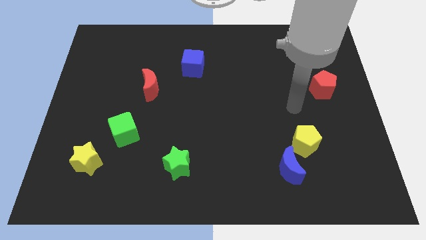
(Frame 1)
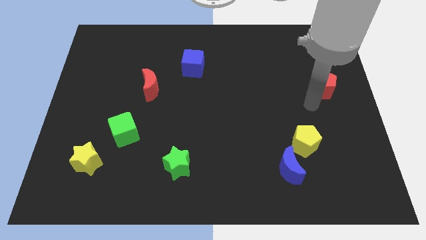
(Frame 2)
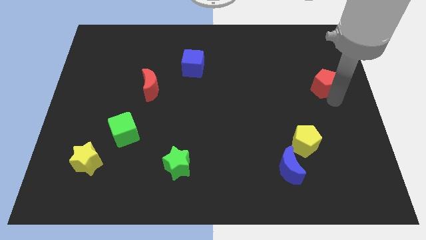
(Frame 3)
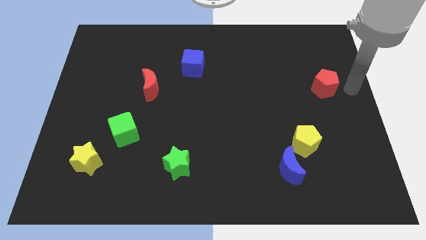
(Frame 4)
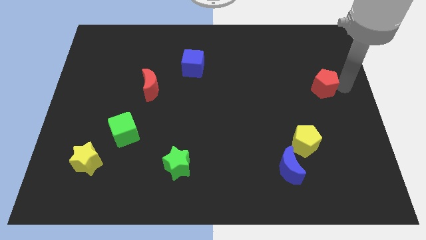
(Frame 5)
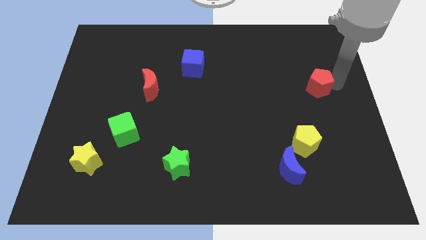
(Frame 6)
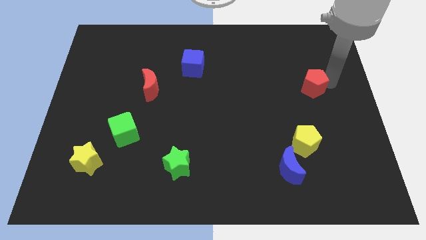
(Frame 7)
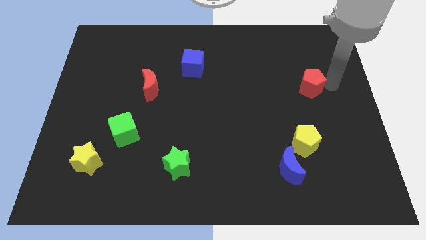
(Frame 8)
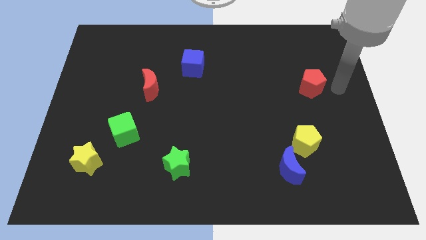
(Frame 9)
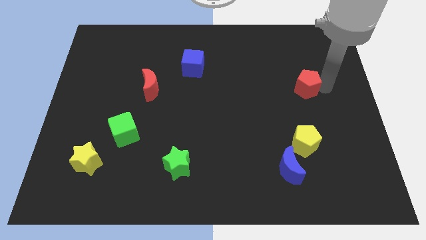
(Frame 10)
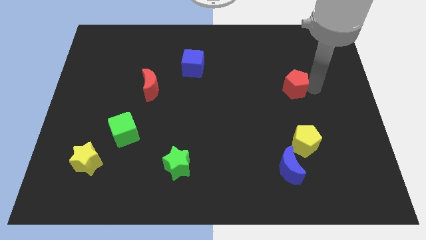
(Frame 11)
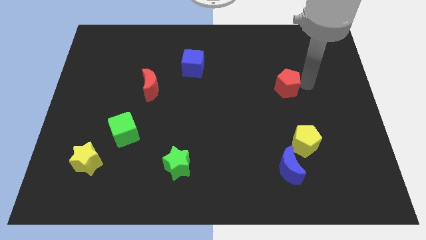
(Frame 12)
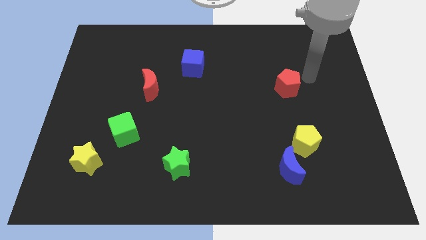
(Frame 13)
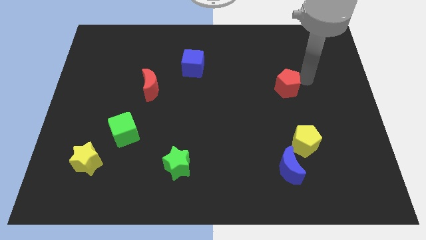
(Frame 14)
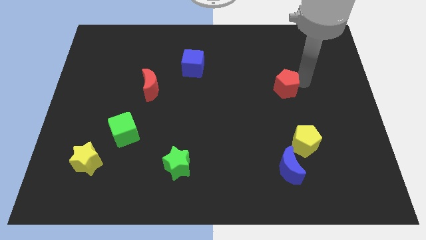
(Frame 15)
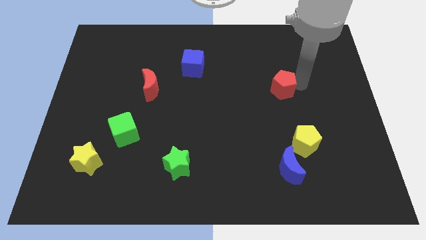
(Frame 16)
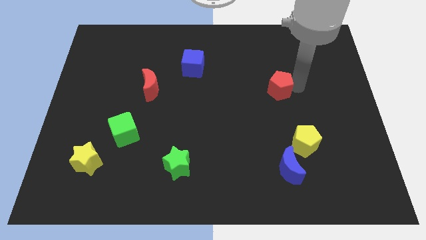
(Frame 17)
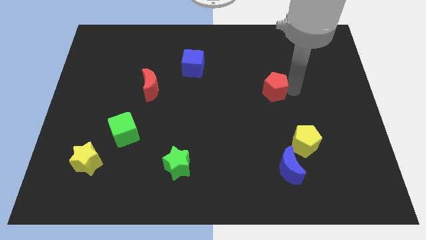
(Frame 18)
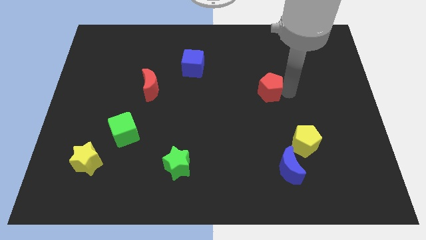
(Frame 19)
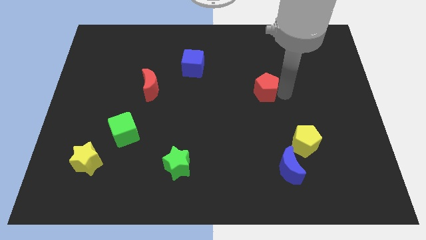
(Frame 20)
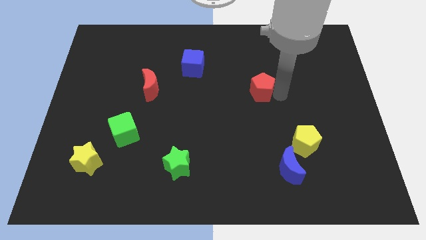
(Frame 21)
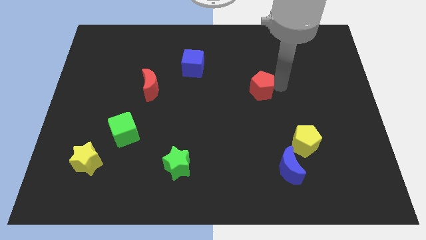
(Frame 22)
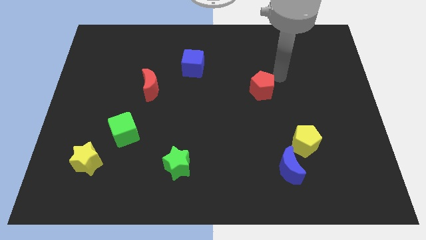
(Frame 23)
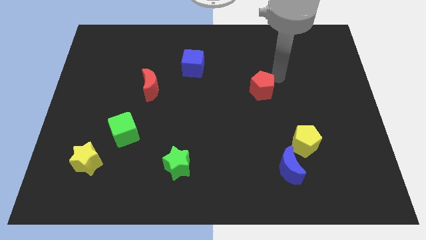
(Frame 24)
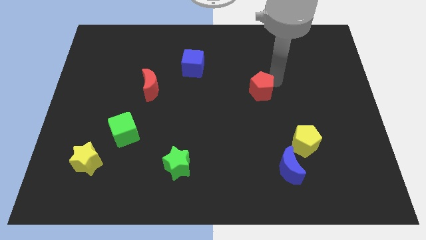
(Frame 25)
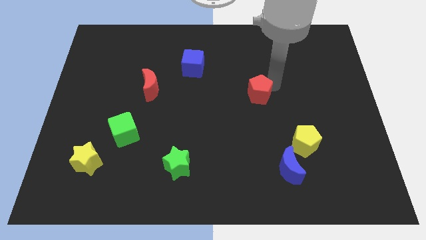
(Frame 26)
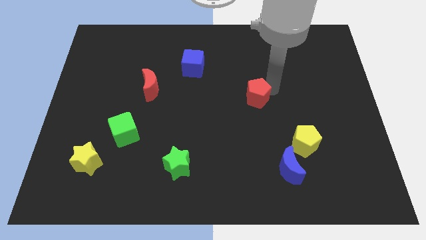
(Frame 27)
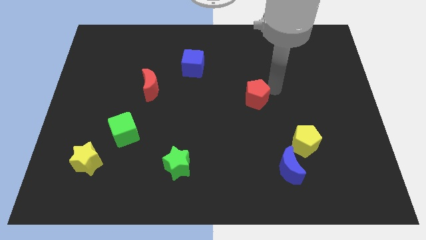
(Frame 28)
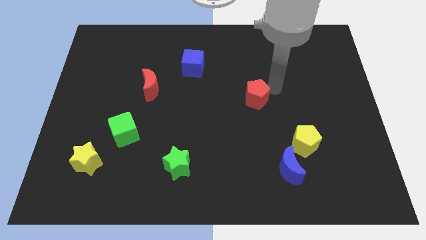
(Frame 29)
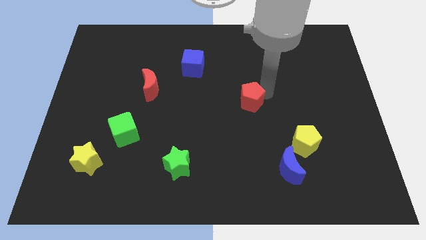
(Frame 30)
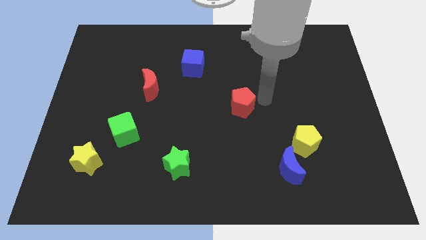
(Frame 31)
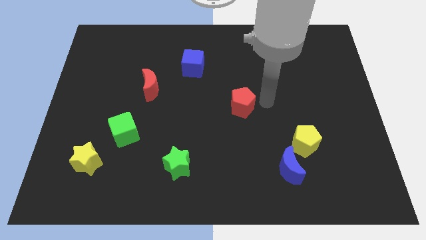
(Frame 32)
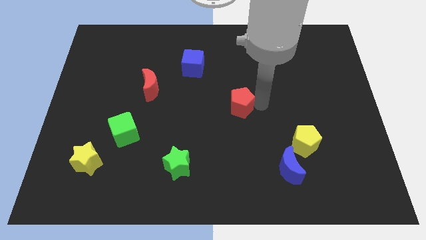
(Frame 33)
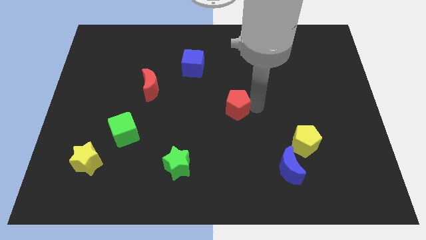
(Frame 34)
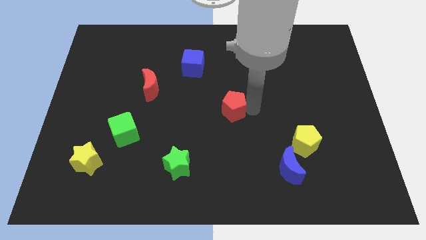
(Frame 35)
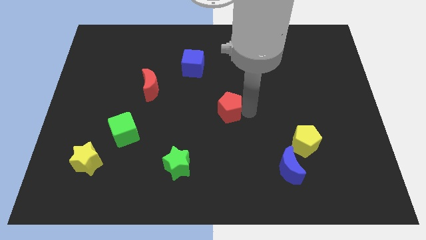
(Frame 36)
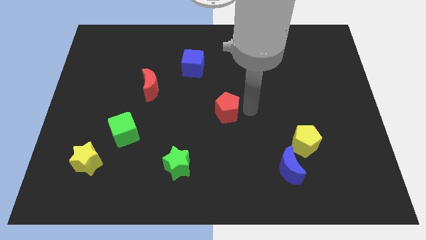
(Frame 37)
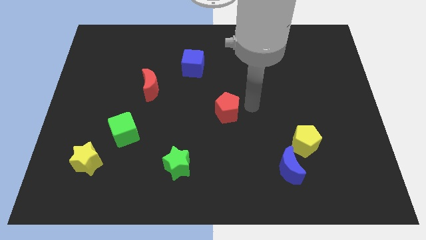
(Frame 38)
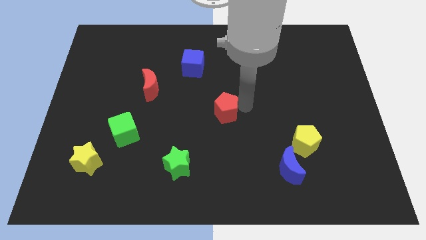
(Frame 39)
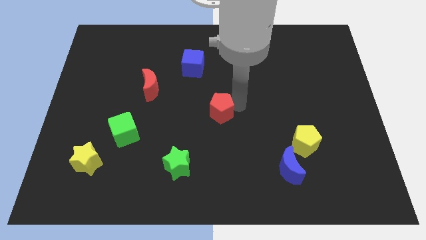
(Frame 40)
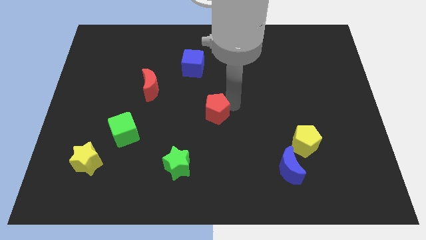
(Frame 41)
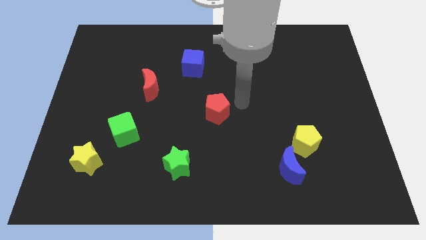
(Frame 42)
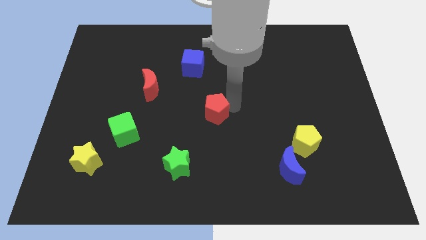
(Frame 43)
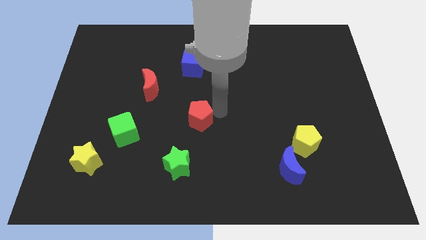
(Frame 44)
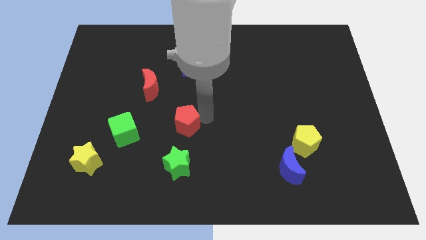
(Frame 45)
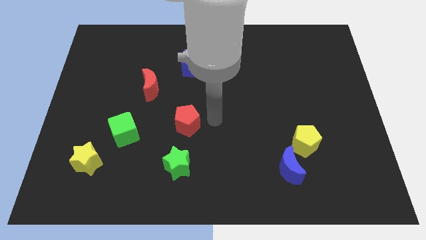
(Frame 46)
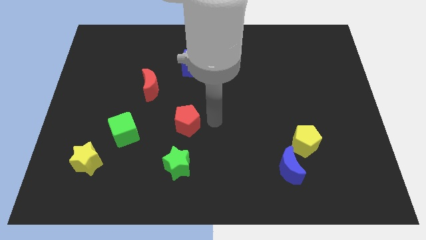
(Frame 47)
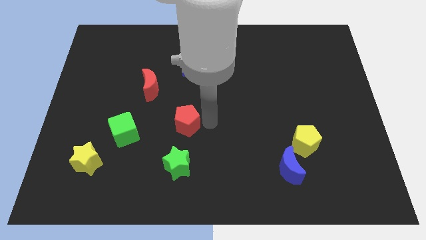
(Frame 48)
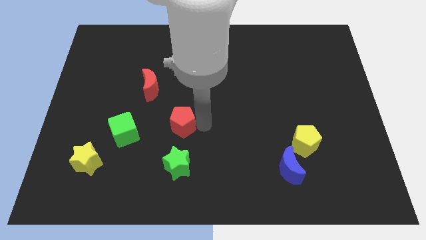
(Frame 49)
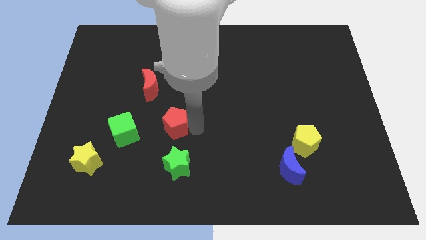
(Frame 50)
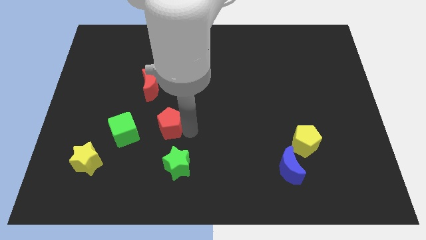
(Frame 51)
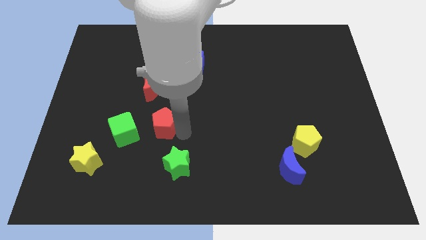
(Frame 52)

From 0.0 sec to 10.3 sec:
put the red pentagon below the red moon

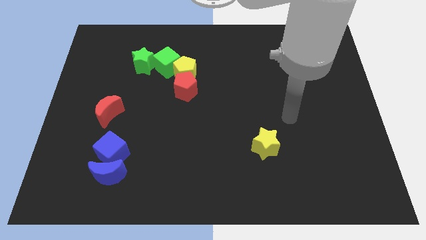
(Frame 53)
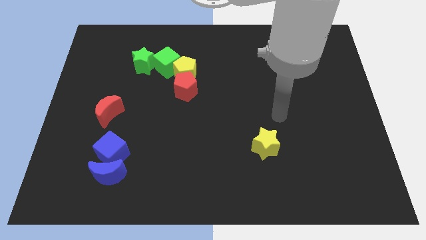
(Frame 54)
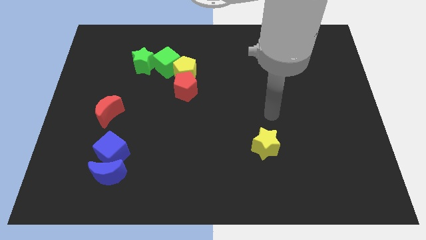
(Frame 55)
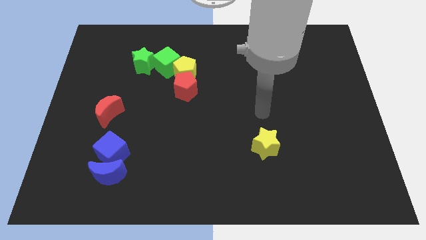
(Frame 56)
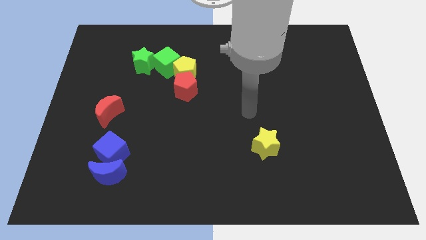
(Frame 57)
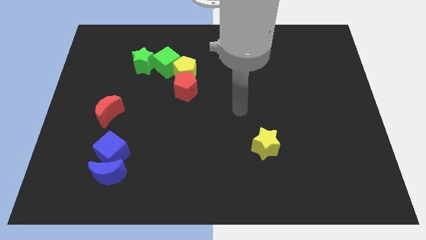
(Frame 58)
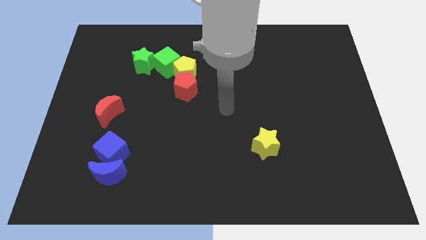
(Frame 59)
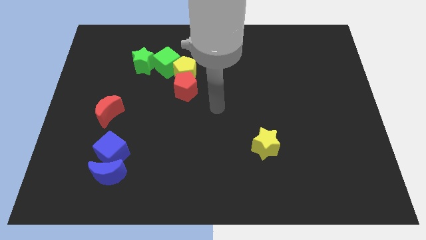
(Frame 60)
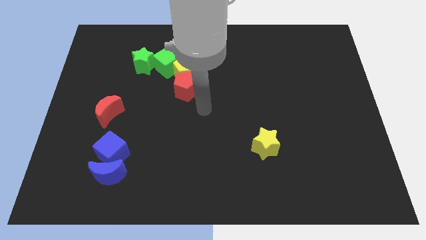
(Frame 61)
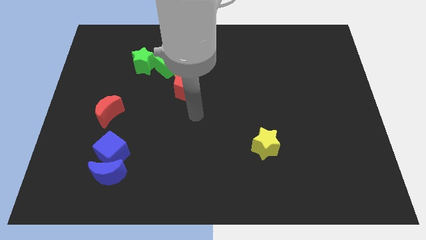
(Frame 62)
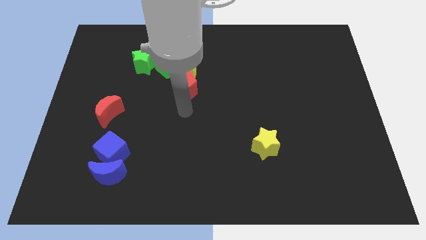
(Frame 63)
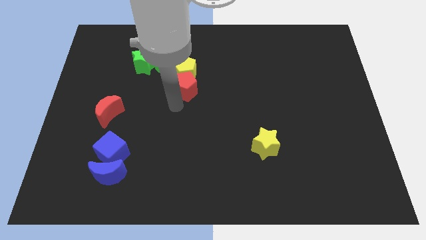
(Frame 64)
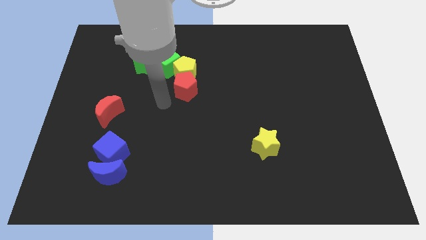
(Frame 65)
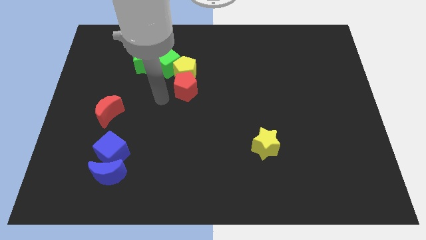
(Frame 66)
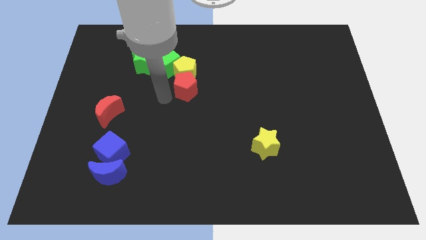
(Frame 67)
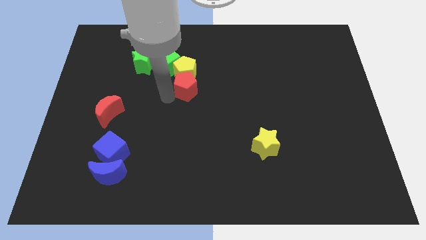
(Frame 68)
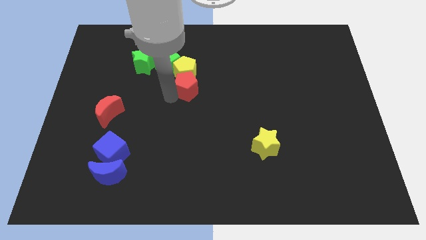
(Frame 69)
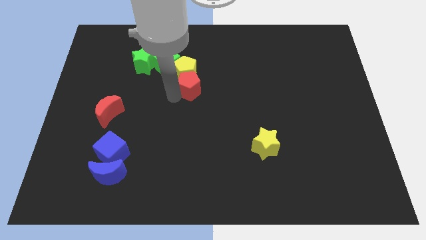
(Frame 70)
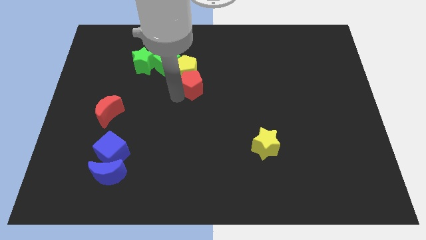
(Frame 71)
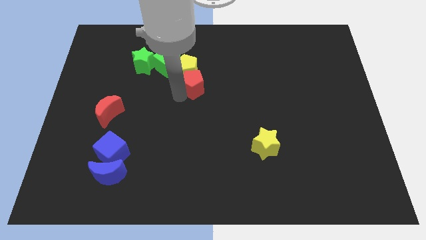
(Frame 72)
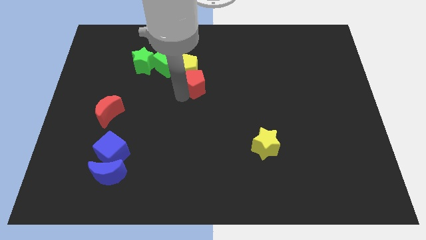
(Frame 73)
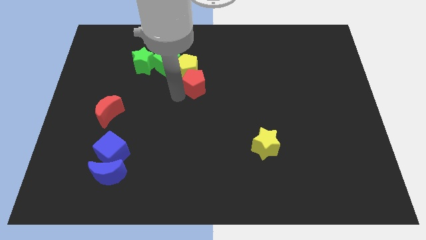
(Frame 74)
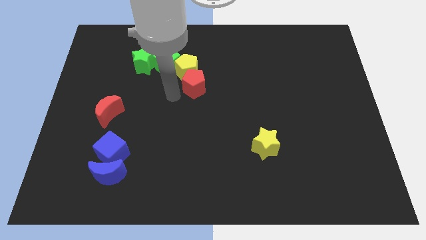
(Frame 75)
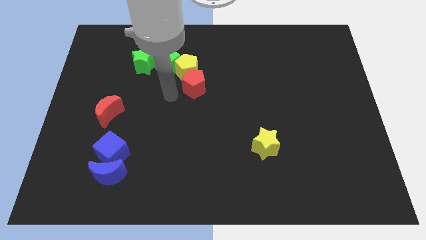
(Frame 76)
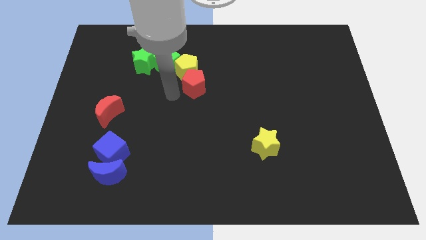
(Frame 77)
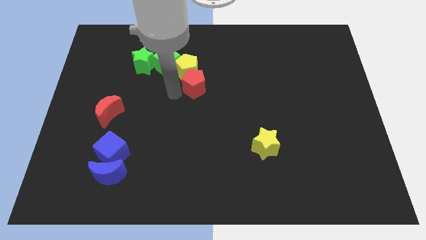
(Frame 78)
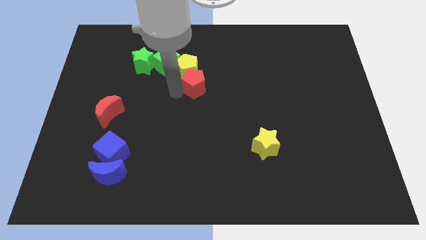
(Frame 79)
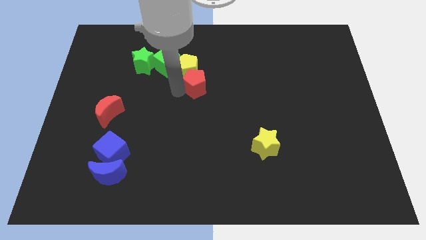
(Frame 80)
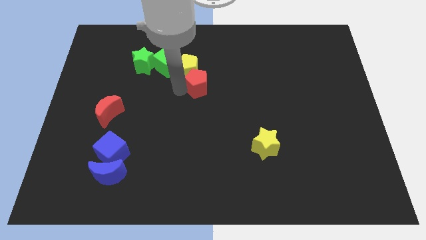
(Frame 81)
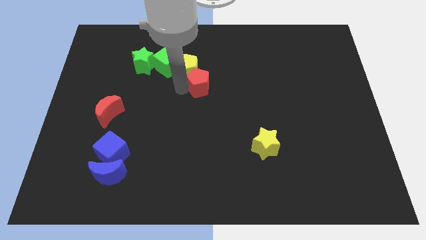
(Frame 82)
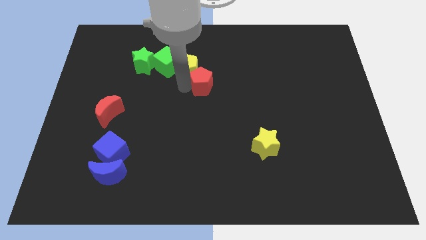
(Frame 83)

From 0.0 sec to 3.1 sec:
move the red pentagon right of the yellow pentagon
